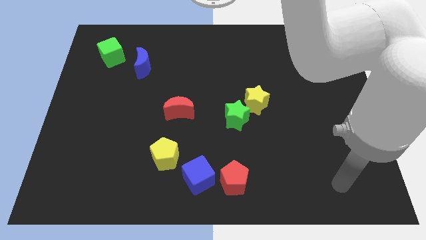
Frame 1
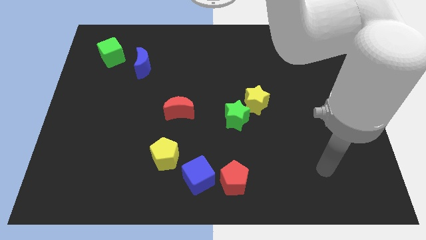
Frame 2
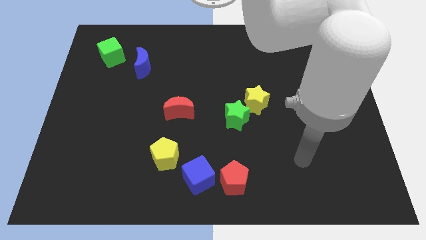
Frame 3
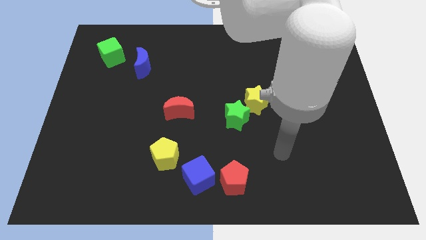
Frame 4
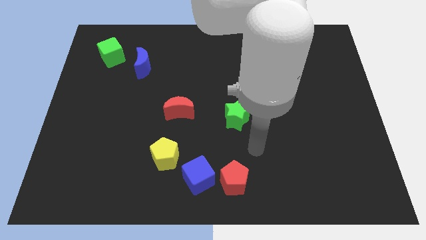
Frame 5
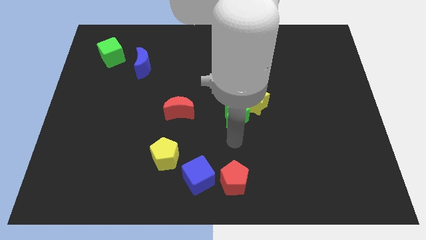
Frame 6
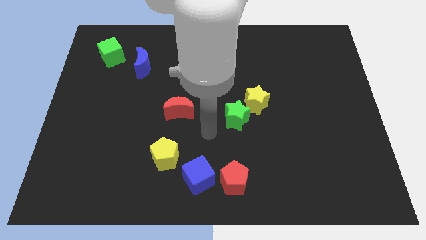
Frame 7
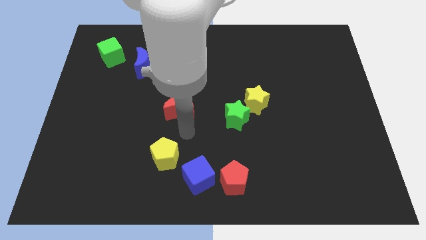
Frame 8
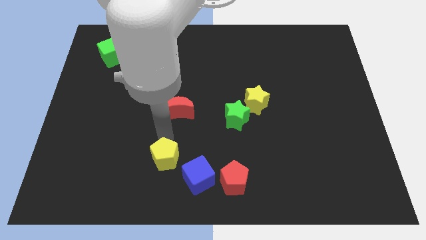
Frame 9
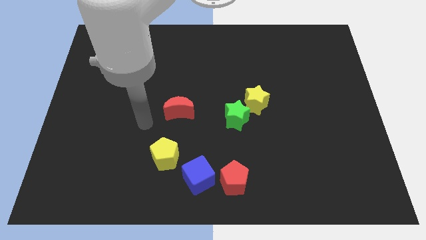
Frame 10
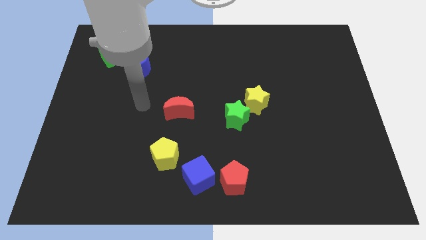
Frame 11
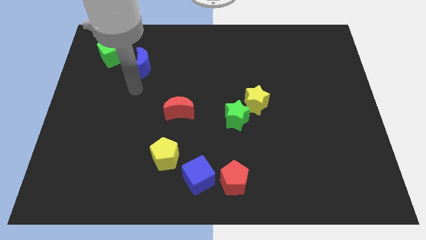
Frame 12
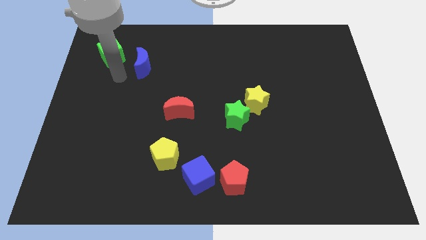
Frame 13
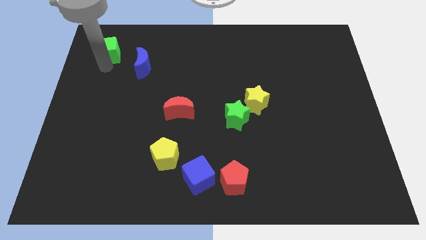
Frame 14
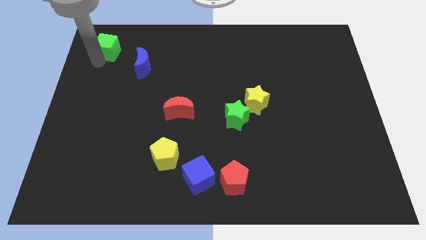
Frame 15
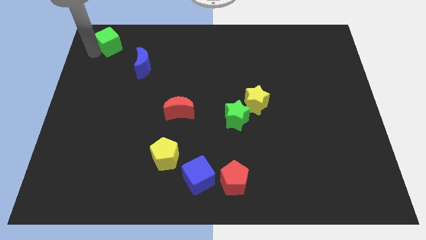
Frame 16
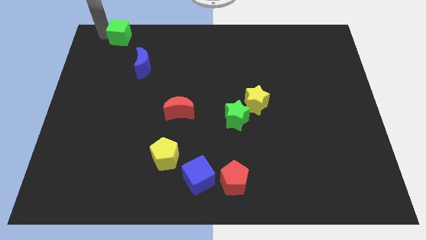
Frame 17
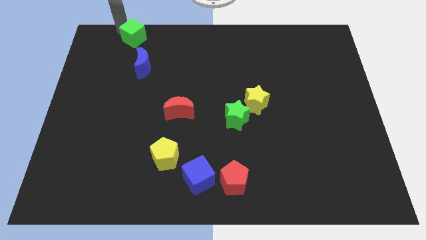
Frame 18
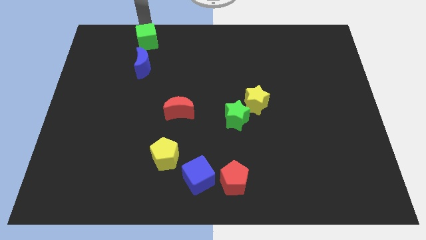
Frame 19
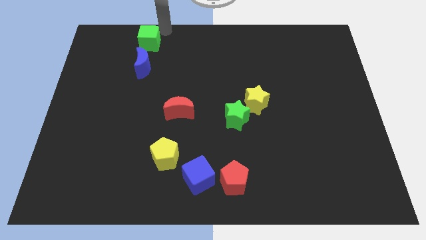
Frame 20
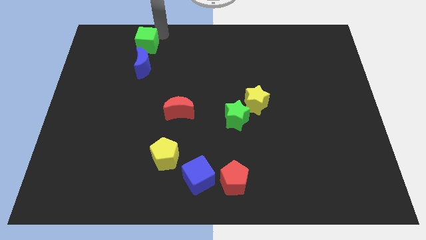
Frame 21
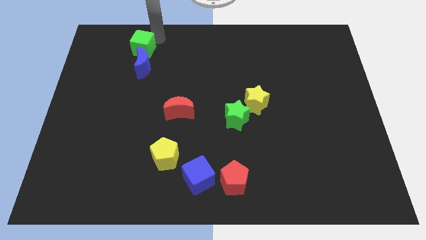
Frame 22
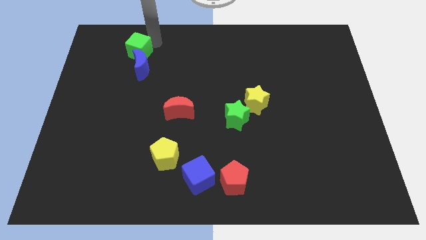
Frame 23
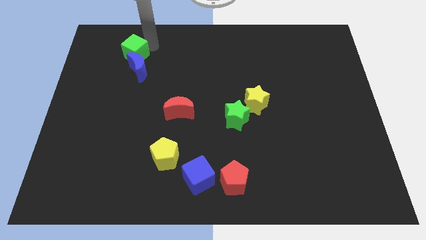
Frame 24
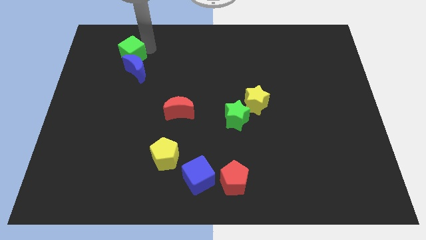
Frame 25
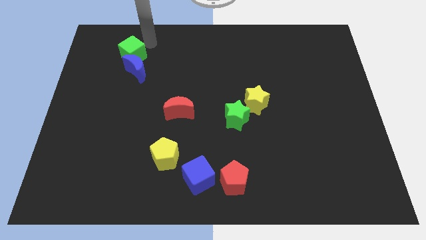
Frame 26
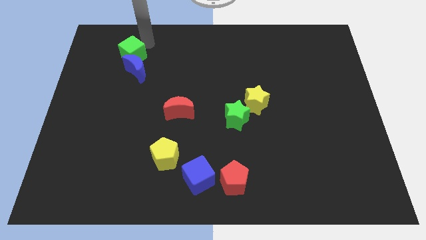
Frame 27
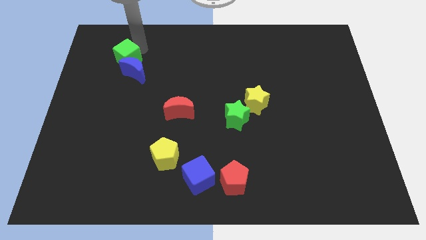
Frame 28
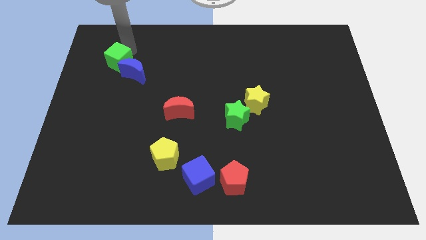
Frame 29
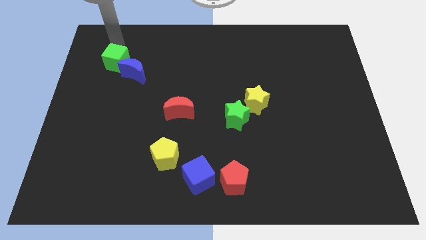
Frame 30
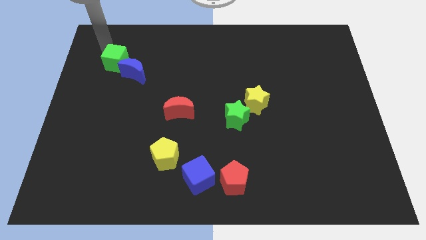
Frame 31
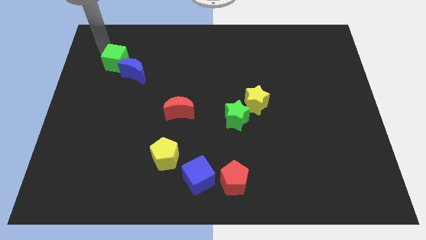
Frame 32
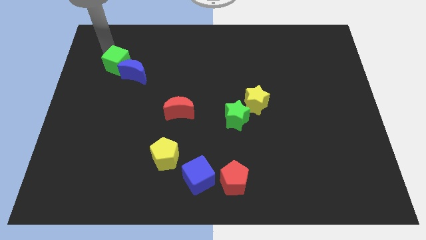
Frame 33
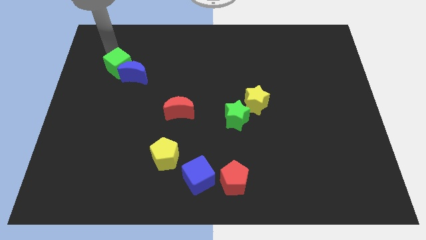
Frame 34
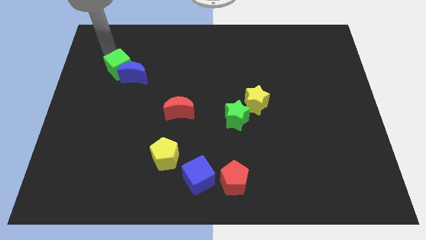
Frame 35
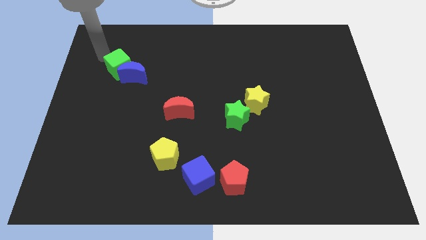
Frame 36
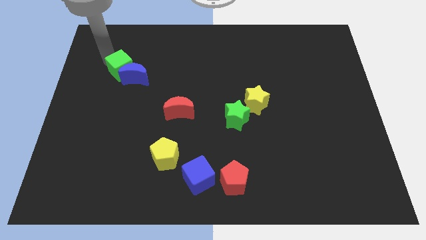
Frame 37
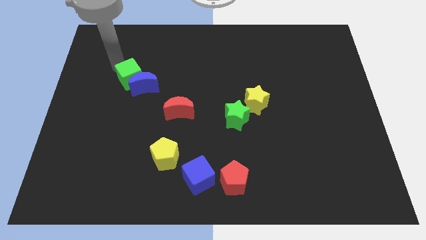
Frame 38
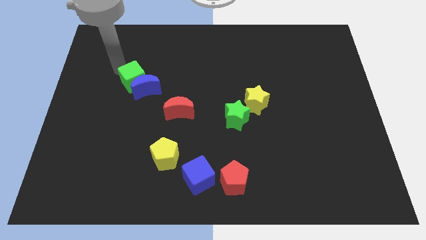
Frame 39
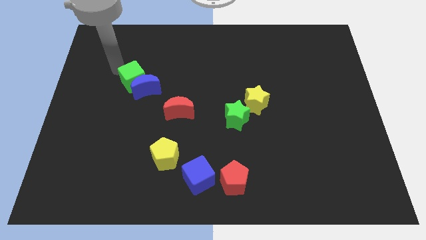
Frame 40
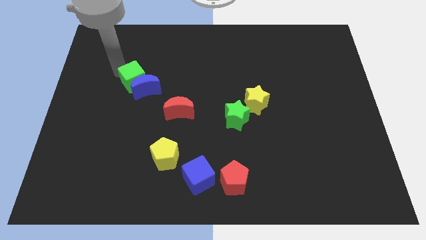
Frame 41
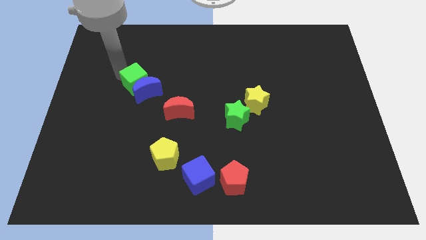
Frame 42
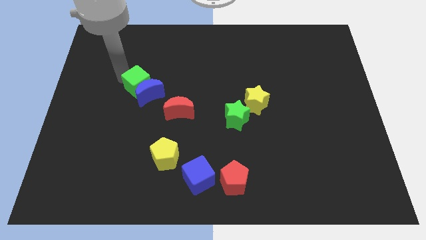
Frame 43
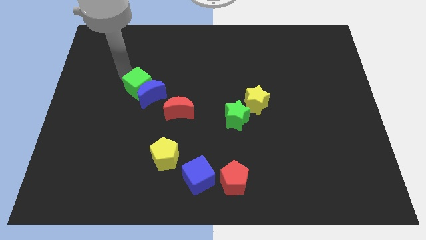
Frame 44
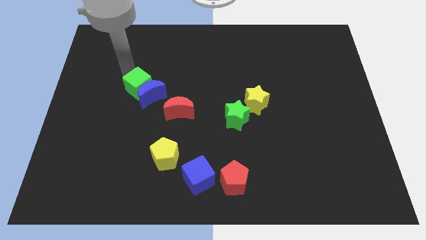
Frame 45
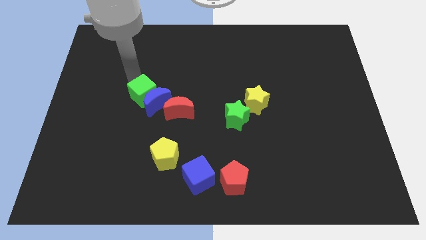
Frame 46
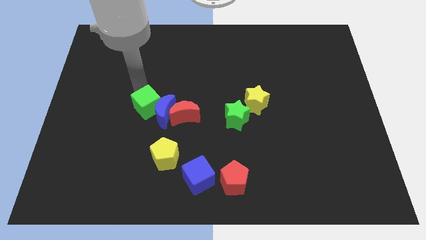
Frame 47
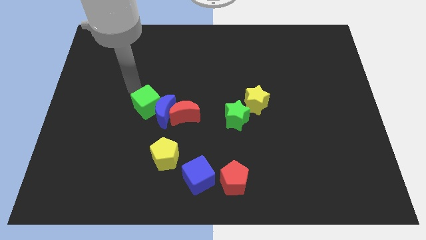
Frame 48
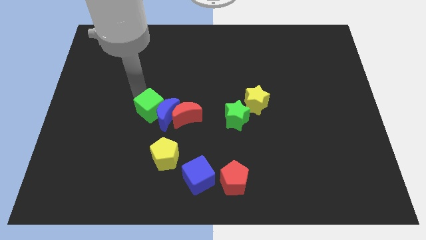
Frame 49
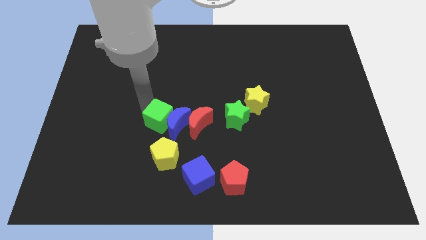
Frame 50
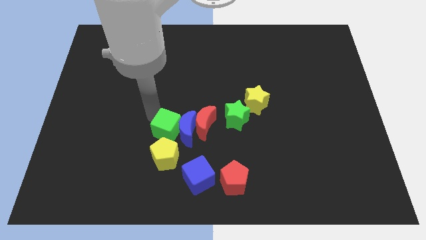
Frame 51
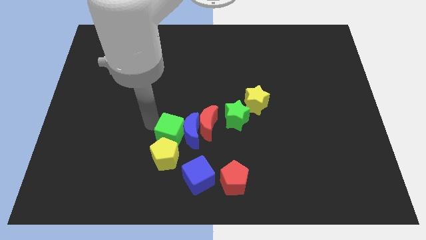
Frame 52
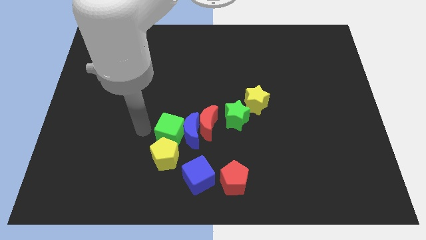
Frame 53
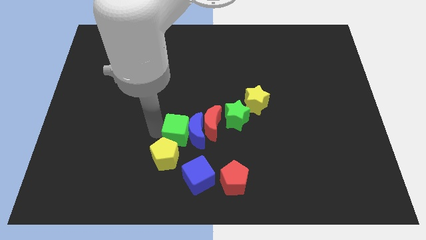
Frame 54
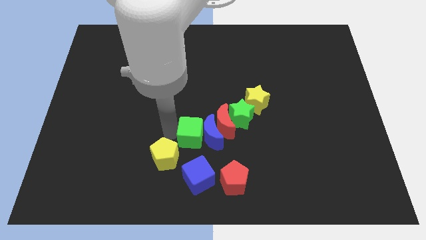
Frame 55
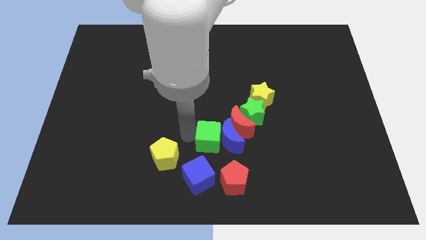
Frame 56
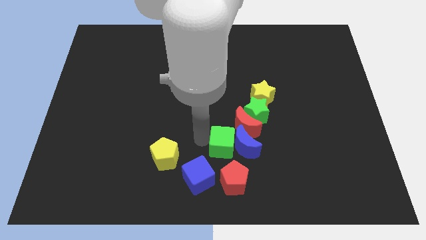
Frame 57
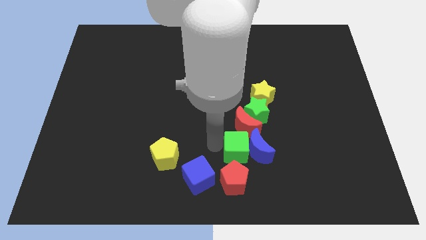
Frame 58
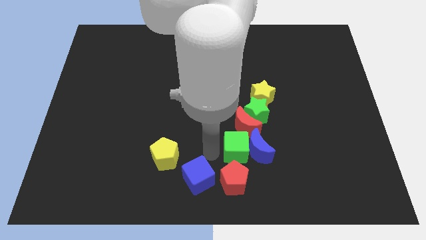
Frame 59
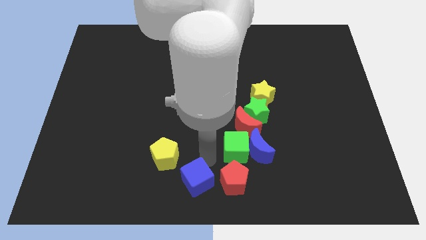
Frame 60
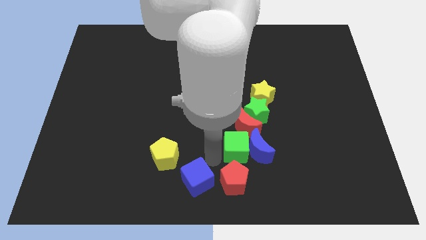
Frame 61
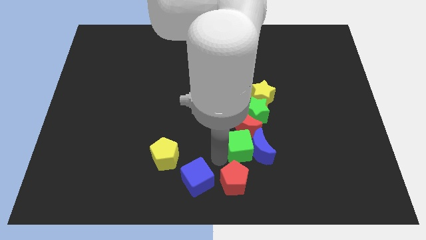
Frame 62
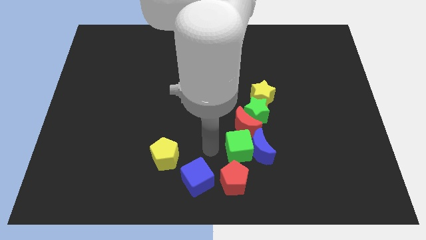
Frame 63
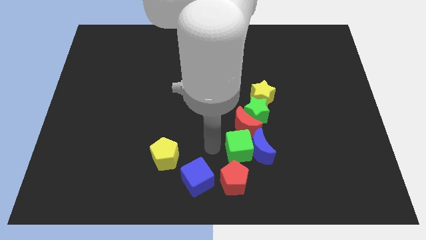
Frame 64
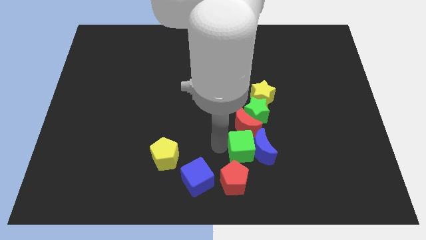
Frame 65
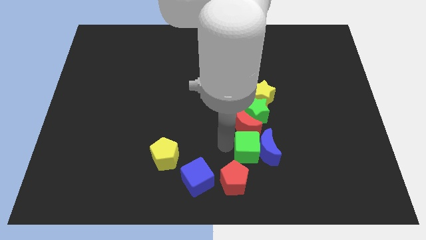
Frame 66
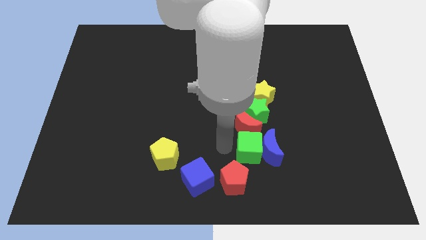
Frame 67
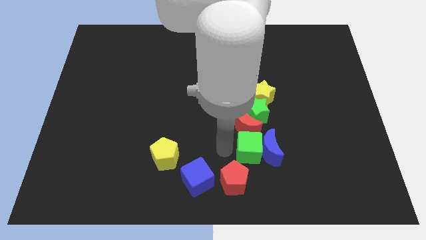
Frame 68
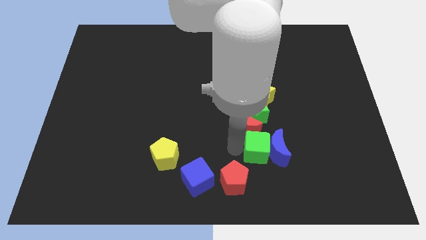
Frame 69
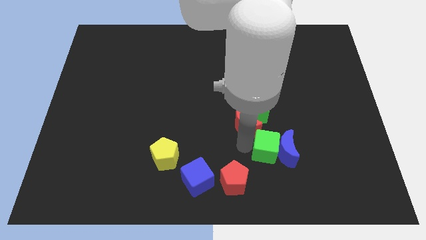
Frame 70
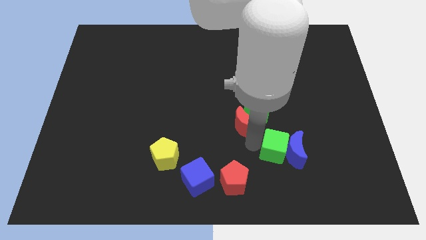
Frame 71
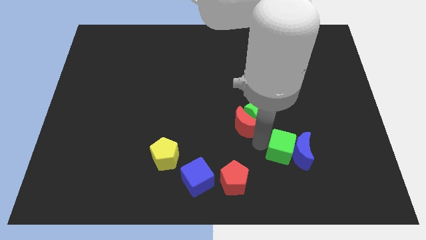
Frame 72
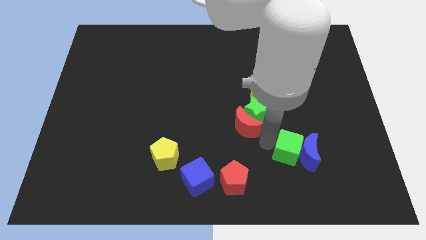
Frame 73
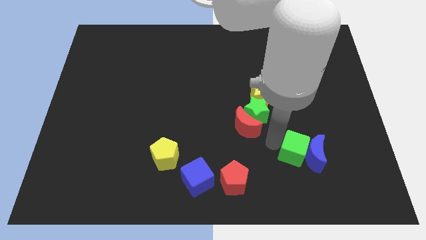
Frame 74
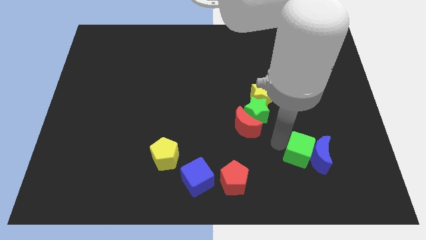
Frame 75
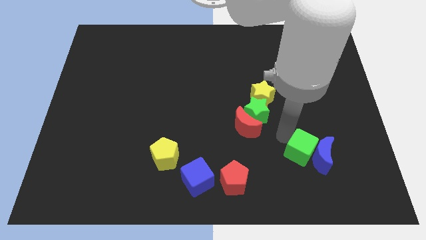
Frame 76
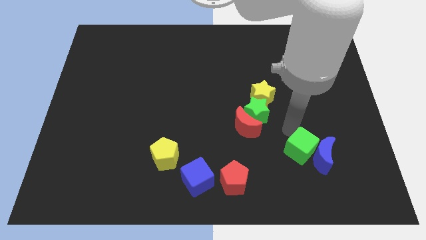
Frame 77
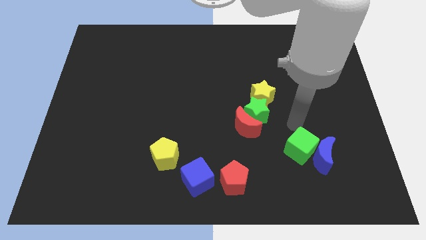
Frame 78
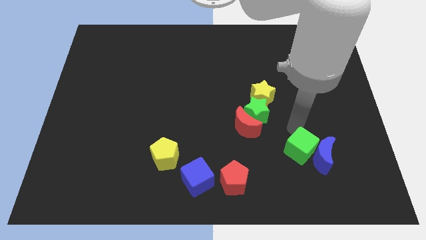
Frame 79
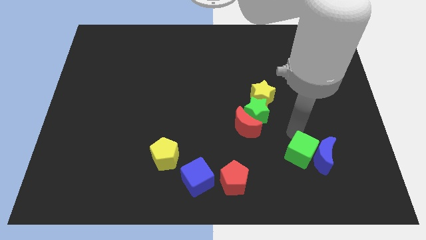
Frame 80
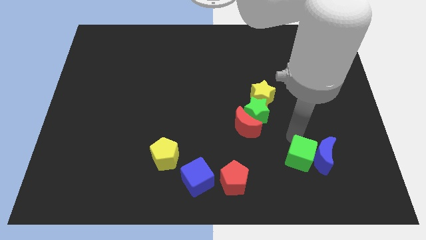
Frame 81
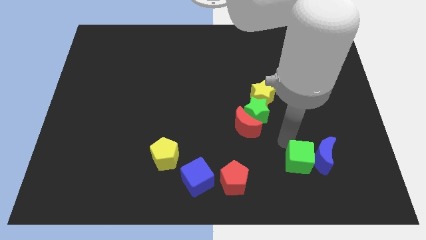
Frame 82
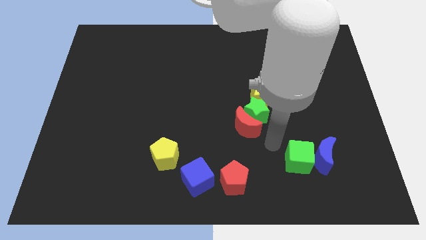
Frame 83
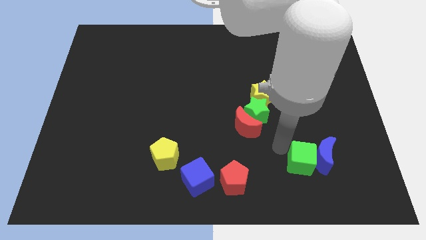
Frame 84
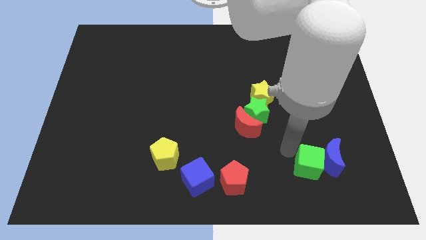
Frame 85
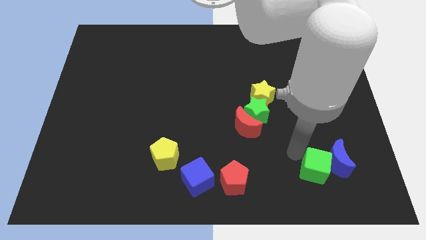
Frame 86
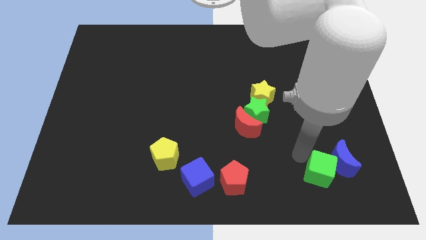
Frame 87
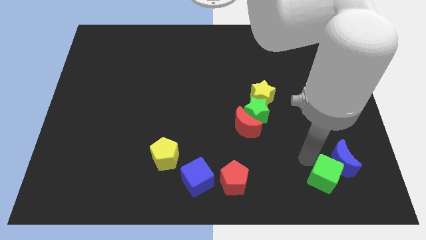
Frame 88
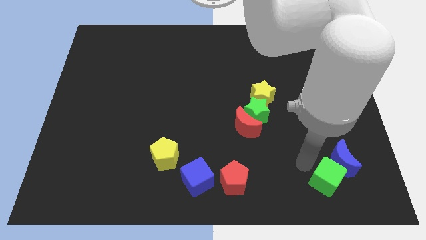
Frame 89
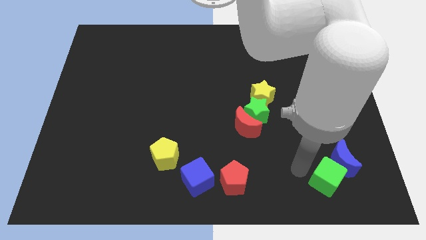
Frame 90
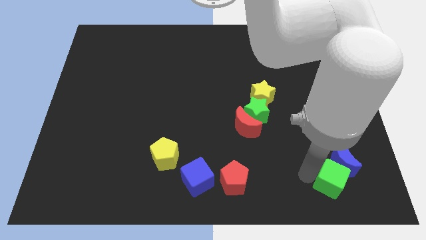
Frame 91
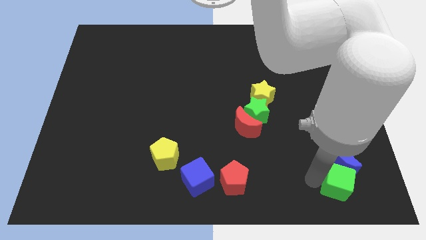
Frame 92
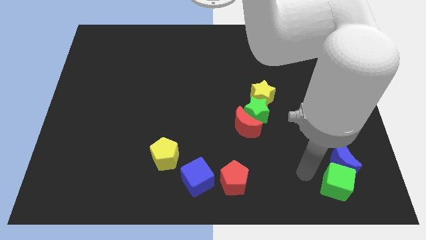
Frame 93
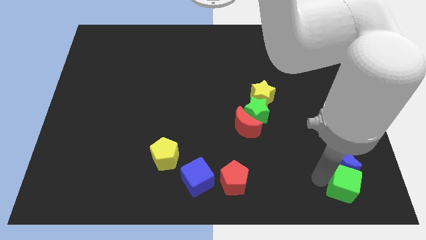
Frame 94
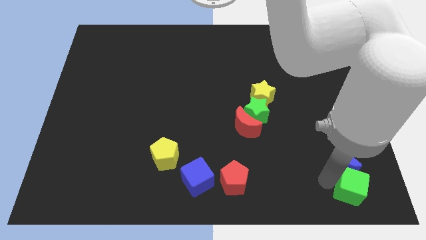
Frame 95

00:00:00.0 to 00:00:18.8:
push the green cube to the bottom right of the board
